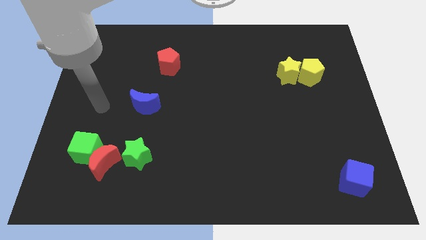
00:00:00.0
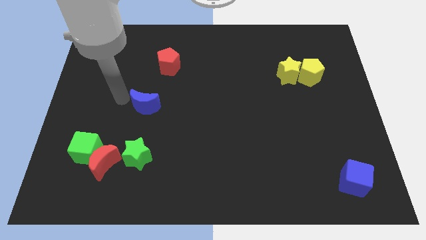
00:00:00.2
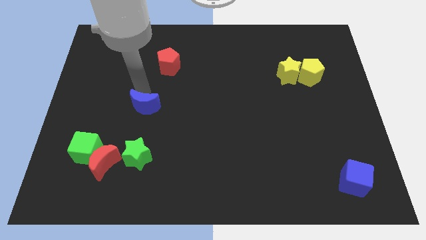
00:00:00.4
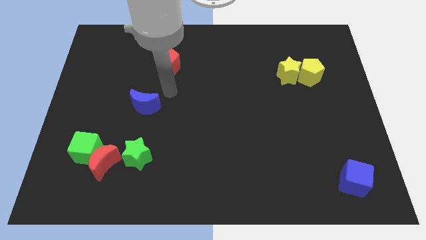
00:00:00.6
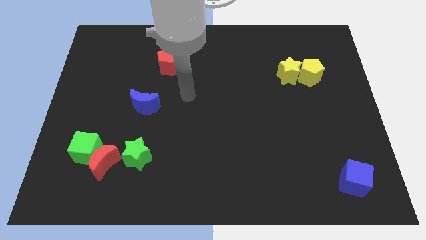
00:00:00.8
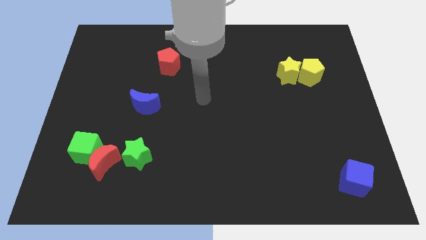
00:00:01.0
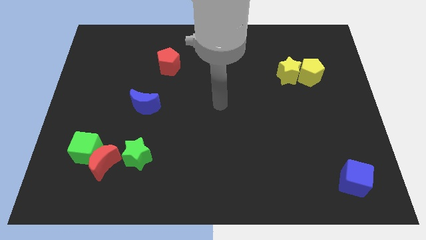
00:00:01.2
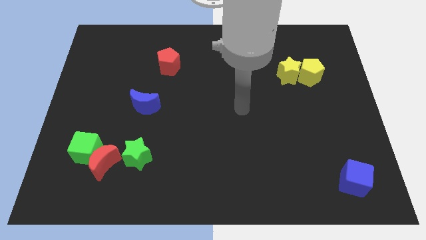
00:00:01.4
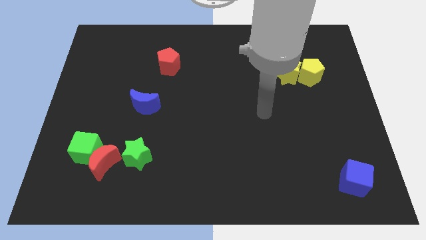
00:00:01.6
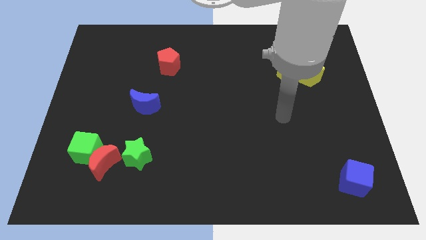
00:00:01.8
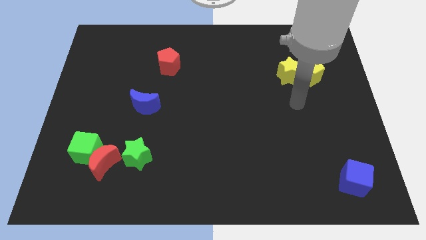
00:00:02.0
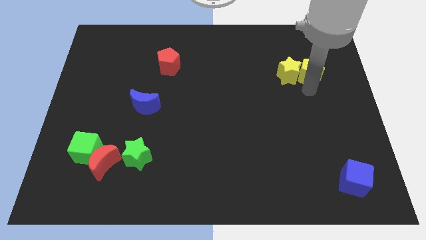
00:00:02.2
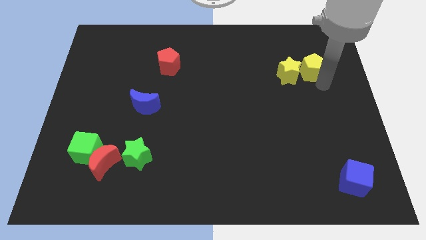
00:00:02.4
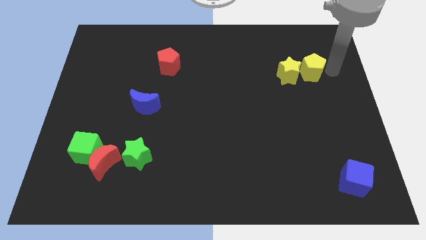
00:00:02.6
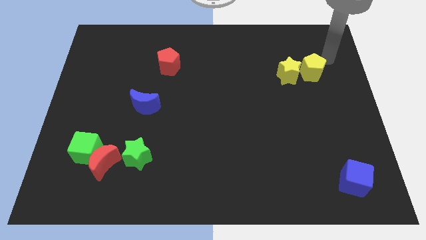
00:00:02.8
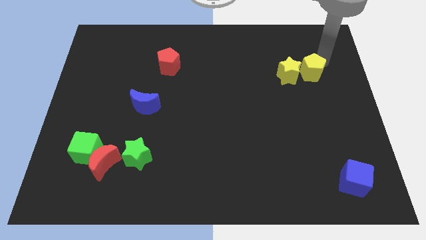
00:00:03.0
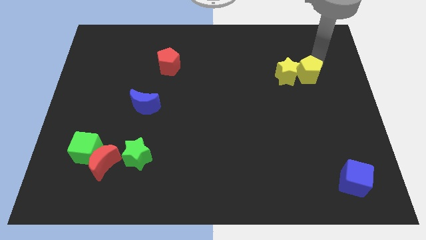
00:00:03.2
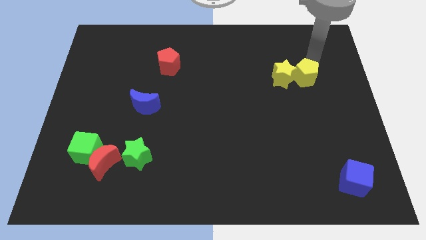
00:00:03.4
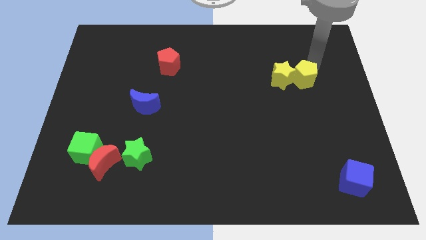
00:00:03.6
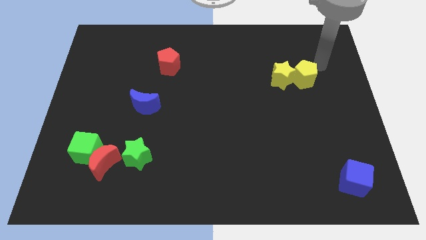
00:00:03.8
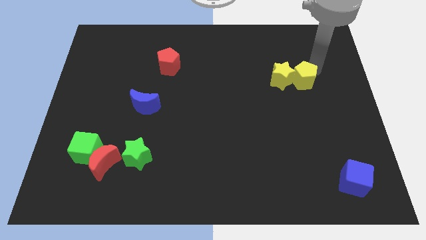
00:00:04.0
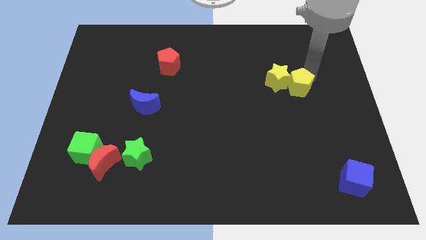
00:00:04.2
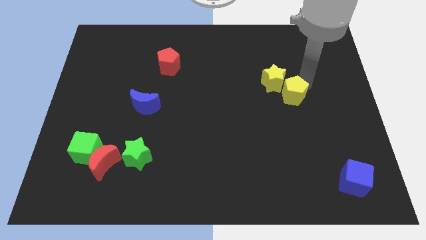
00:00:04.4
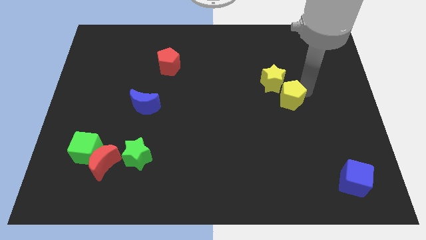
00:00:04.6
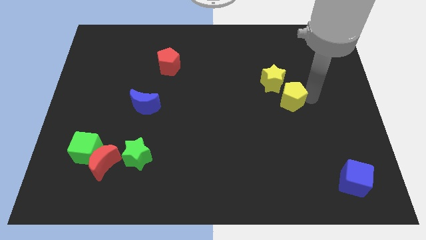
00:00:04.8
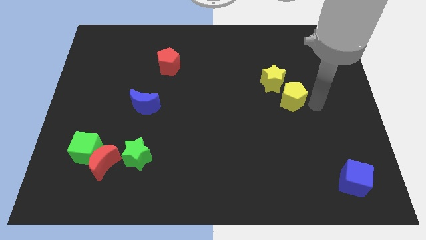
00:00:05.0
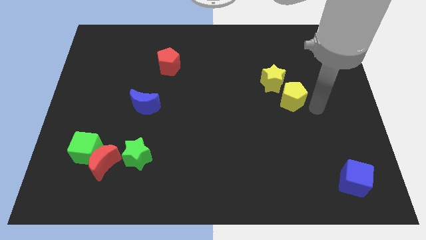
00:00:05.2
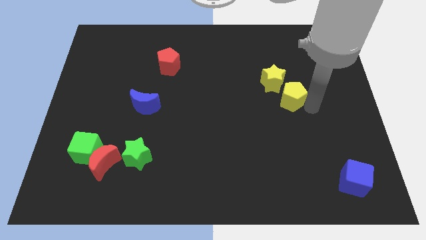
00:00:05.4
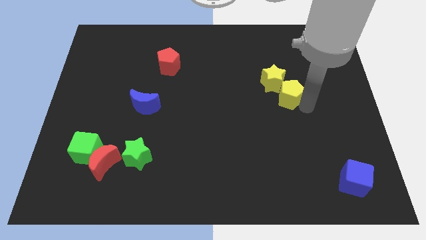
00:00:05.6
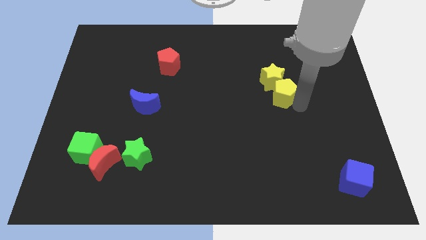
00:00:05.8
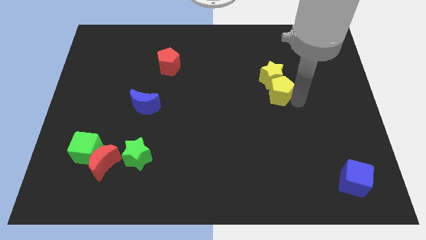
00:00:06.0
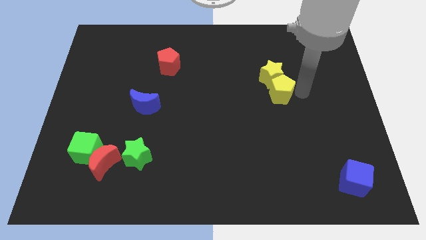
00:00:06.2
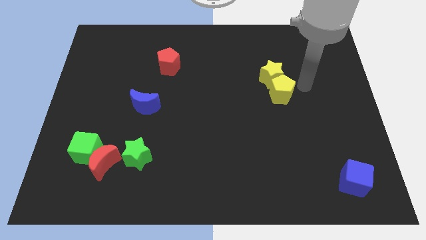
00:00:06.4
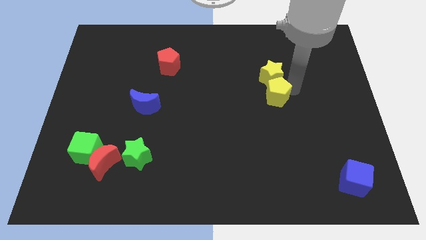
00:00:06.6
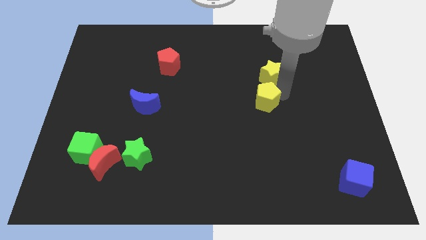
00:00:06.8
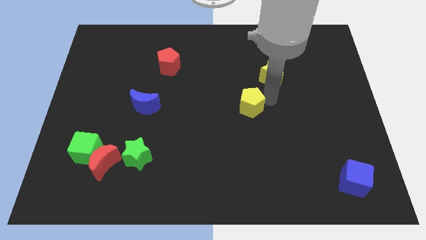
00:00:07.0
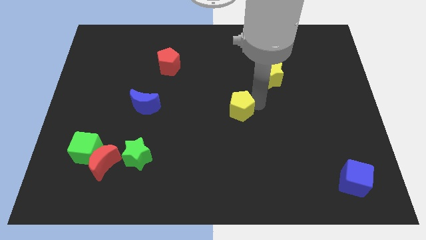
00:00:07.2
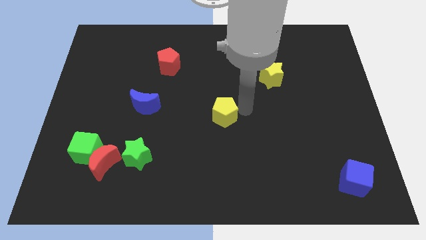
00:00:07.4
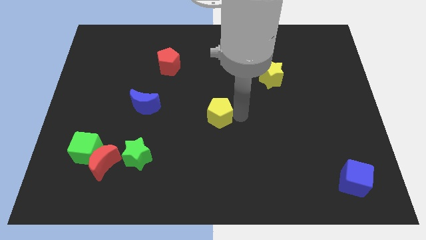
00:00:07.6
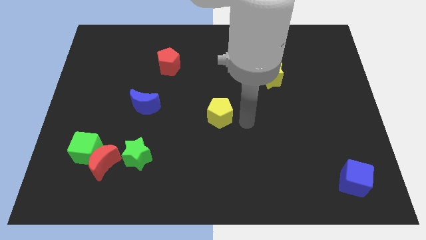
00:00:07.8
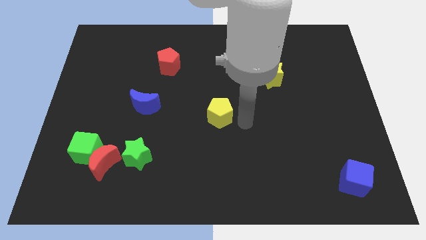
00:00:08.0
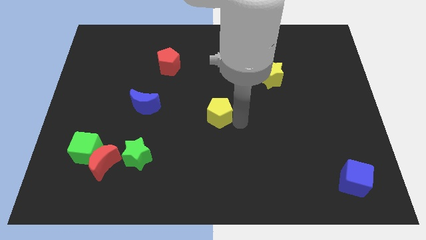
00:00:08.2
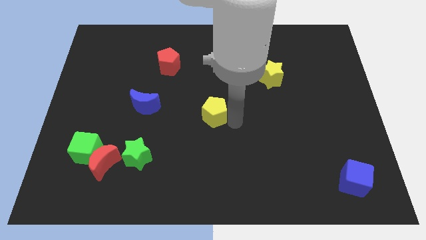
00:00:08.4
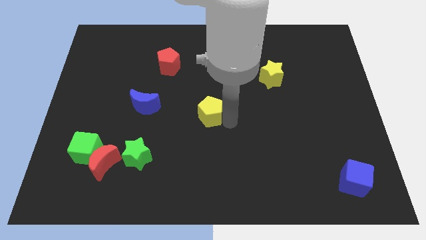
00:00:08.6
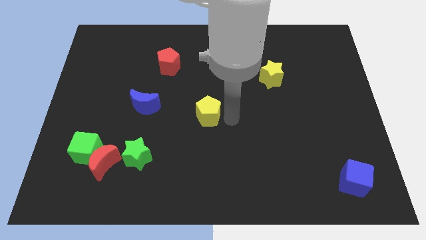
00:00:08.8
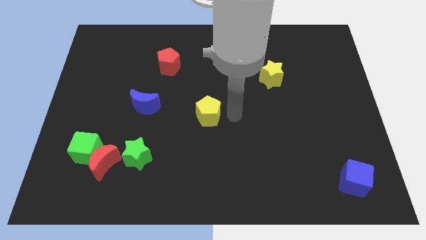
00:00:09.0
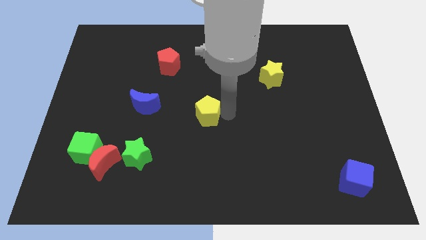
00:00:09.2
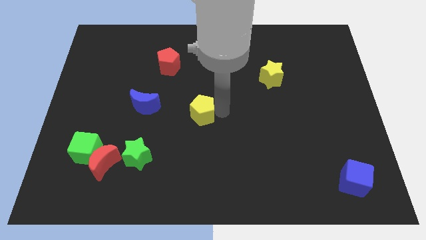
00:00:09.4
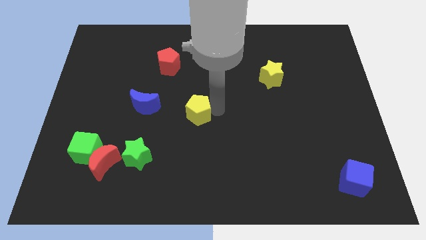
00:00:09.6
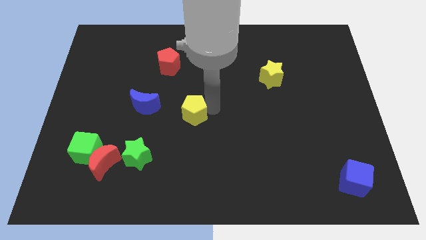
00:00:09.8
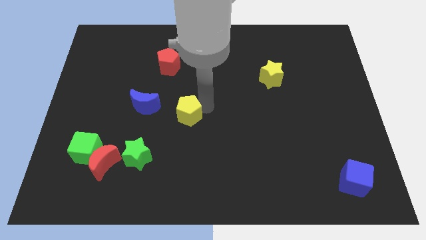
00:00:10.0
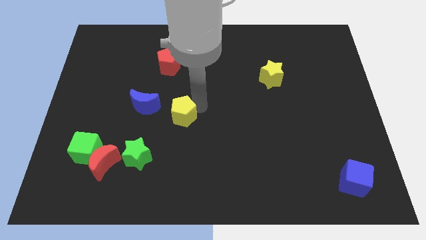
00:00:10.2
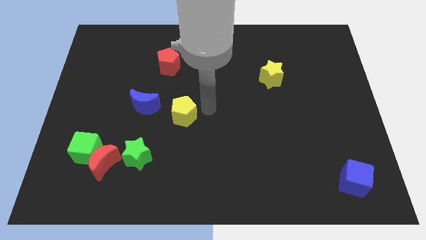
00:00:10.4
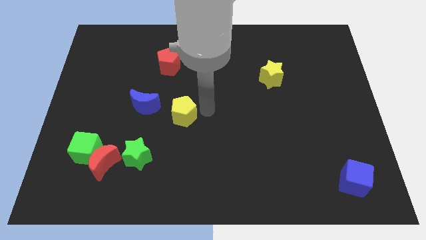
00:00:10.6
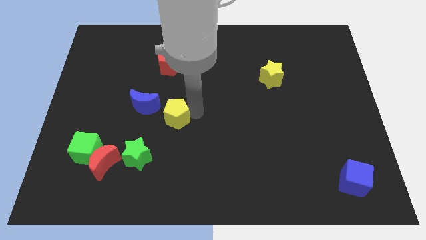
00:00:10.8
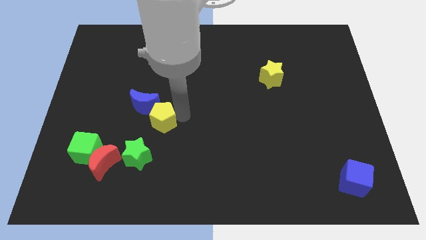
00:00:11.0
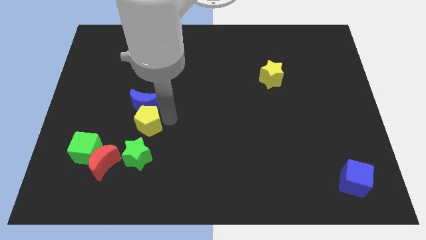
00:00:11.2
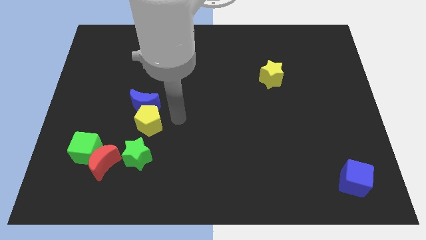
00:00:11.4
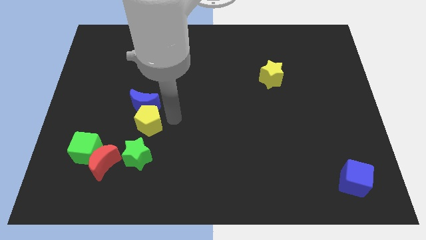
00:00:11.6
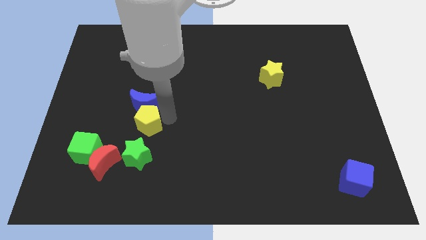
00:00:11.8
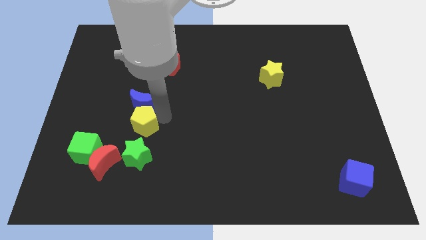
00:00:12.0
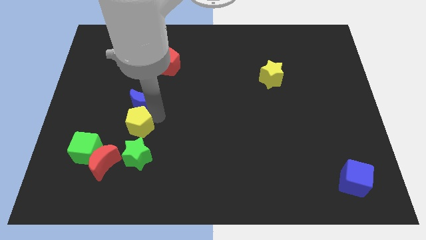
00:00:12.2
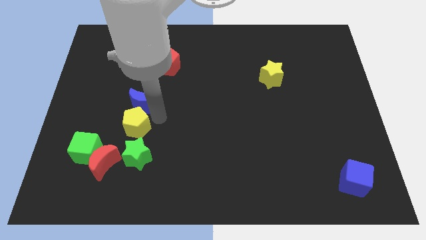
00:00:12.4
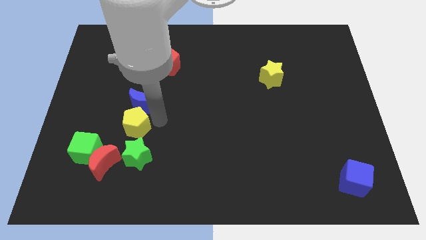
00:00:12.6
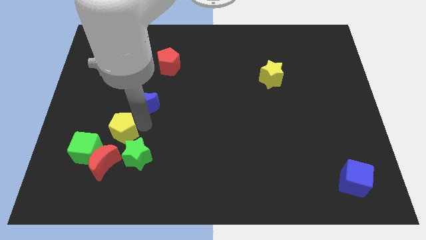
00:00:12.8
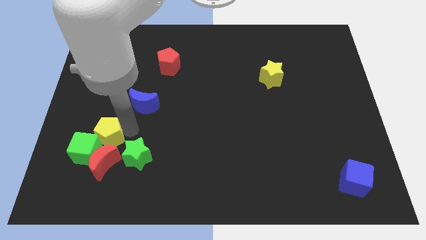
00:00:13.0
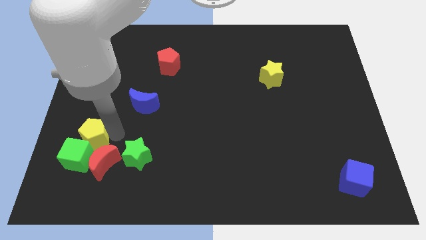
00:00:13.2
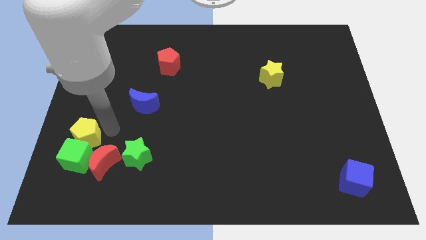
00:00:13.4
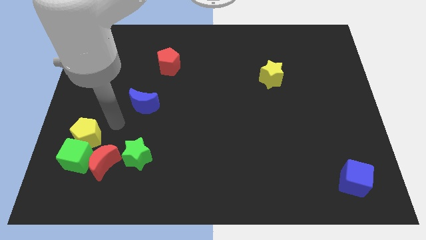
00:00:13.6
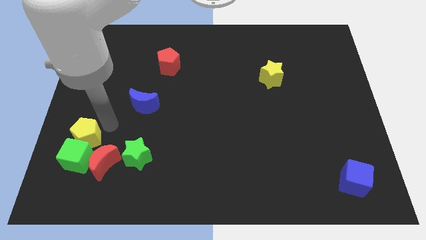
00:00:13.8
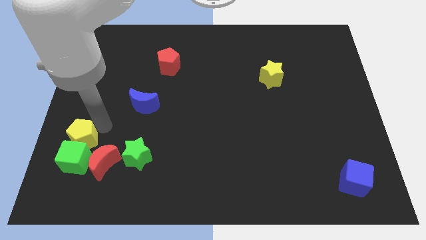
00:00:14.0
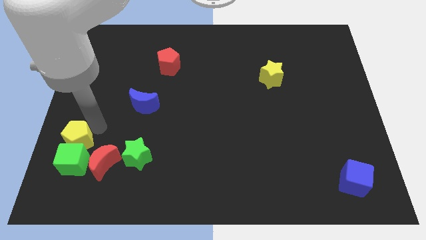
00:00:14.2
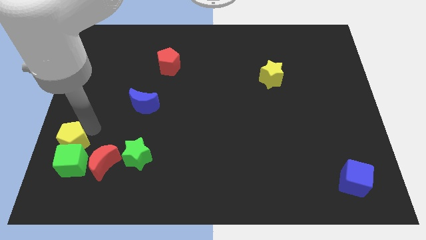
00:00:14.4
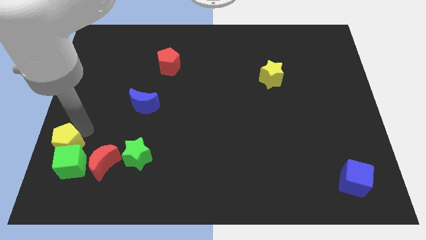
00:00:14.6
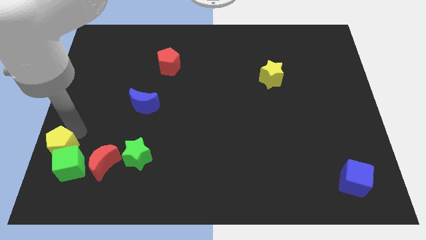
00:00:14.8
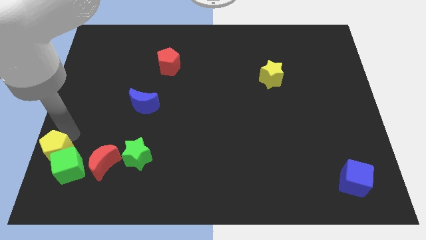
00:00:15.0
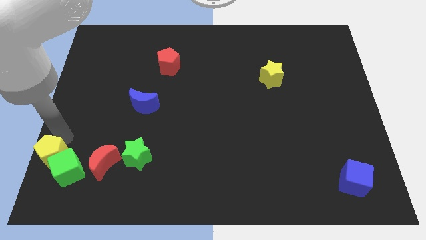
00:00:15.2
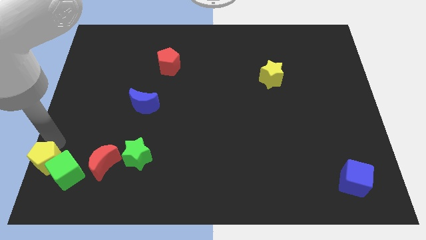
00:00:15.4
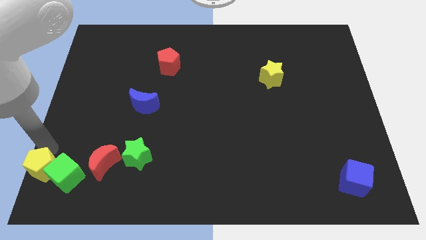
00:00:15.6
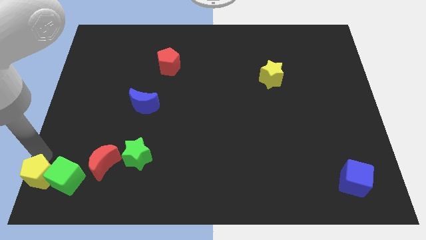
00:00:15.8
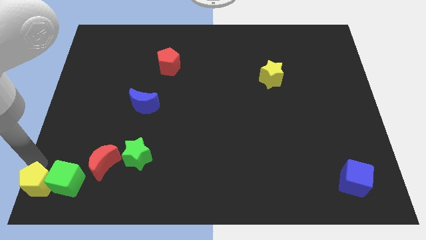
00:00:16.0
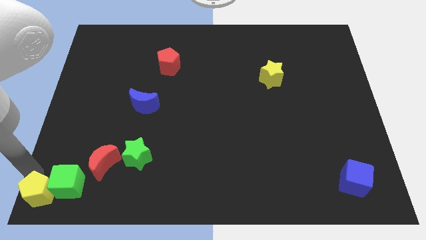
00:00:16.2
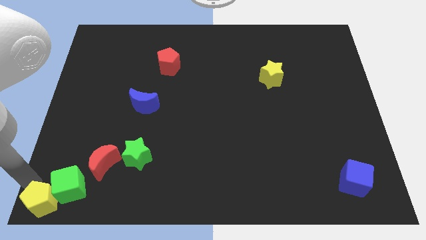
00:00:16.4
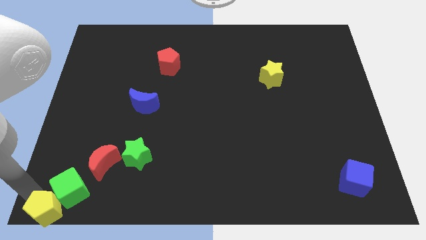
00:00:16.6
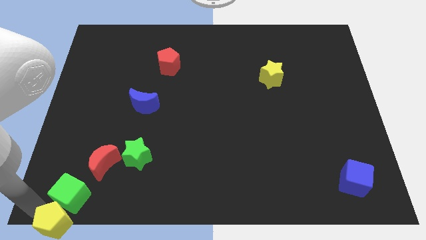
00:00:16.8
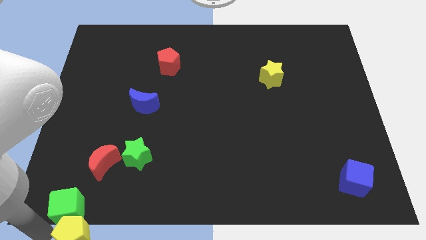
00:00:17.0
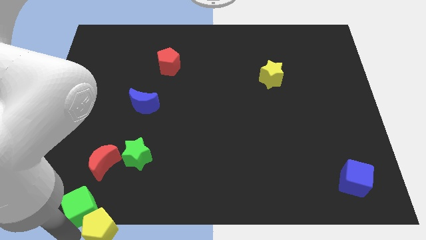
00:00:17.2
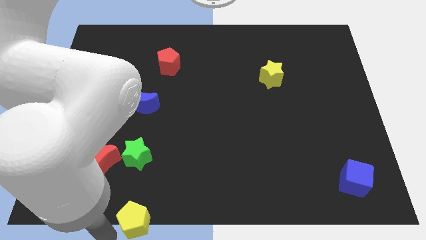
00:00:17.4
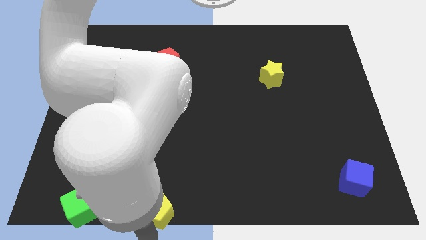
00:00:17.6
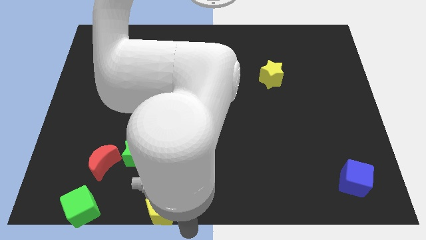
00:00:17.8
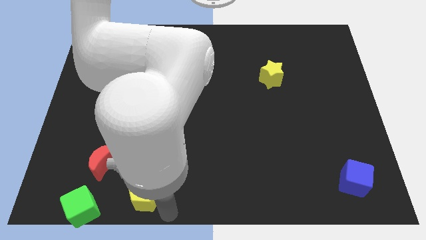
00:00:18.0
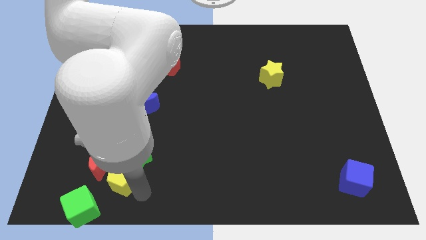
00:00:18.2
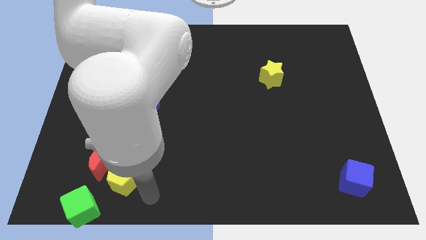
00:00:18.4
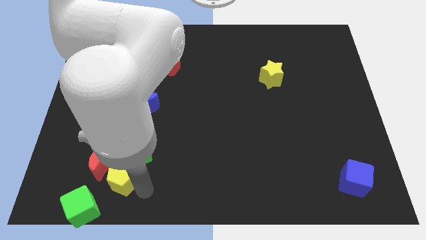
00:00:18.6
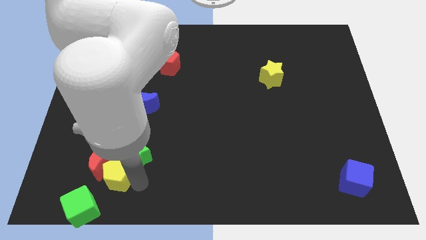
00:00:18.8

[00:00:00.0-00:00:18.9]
push the yellow pentagon to the left of the green star
